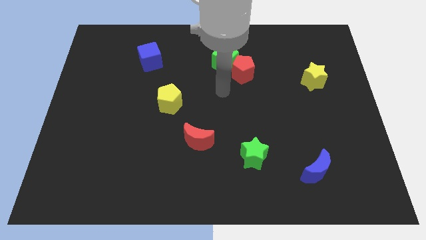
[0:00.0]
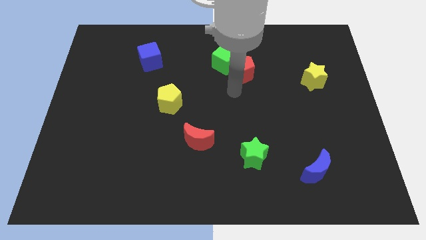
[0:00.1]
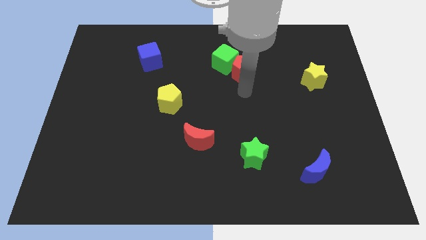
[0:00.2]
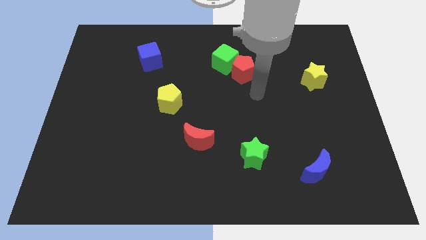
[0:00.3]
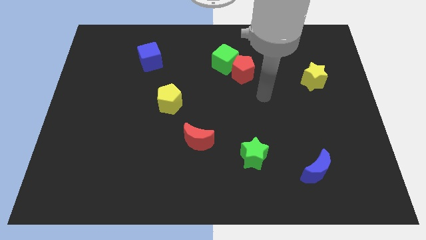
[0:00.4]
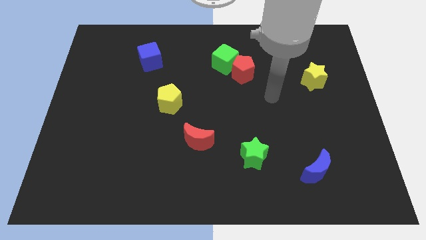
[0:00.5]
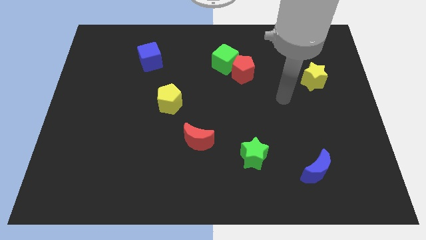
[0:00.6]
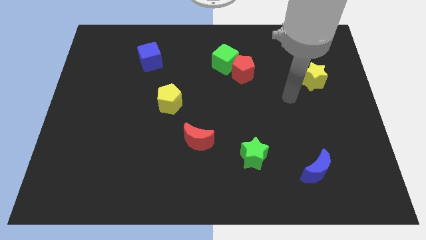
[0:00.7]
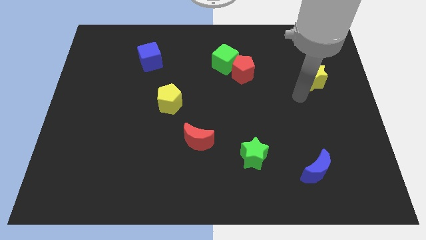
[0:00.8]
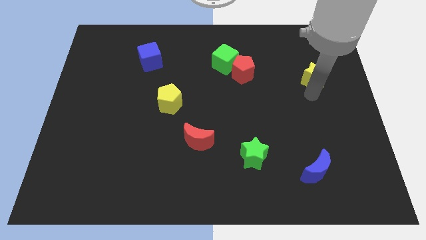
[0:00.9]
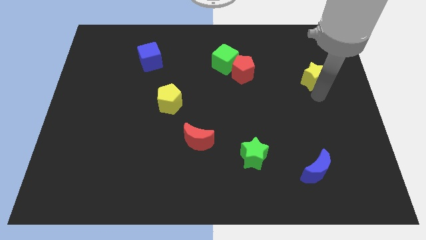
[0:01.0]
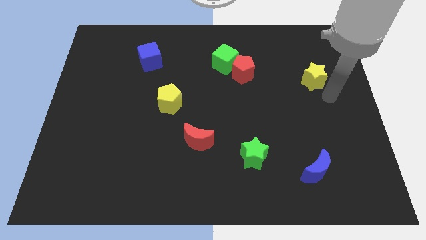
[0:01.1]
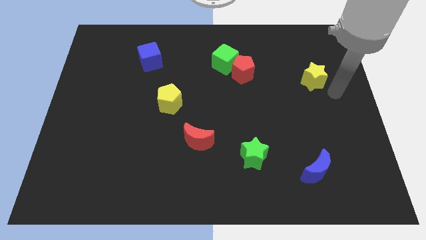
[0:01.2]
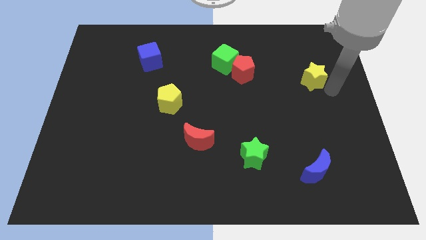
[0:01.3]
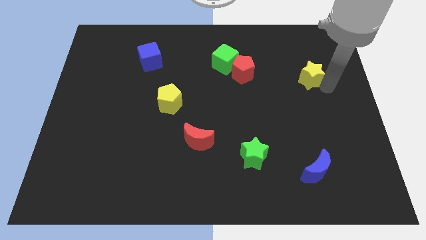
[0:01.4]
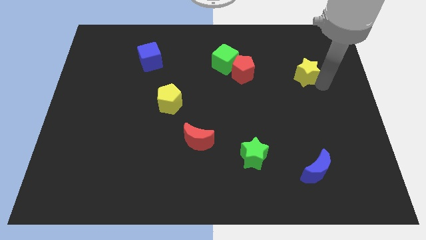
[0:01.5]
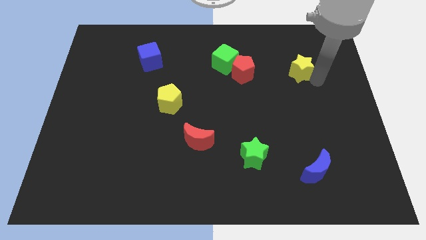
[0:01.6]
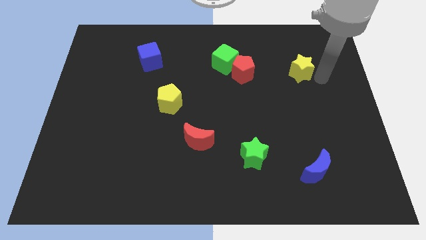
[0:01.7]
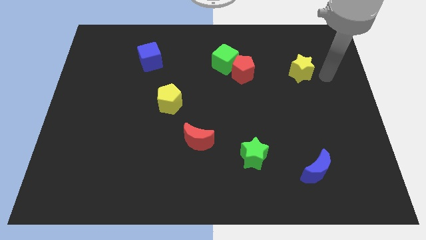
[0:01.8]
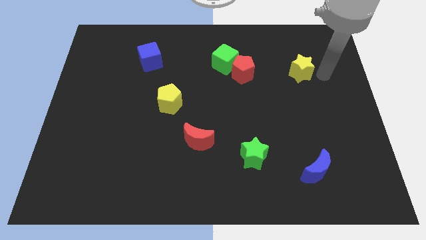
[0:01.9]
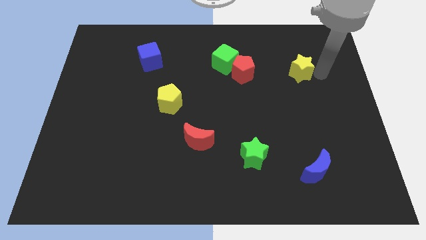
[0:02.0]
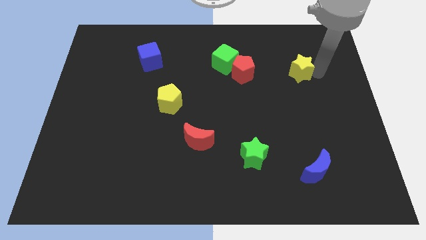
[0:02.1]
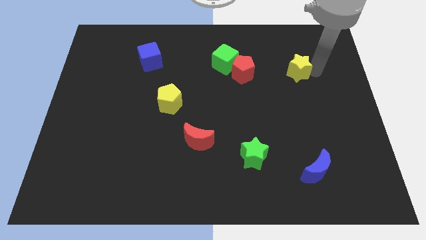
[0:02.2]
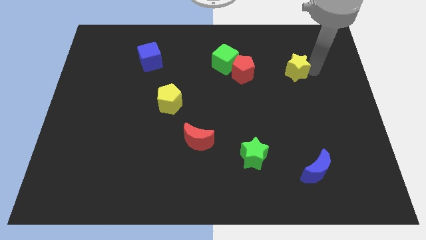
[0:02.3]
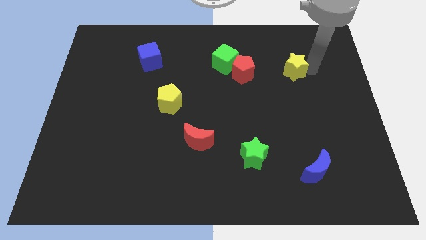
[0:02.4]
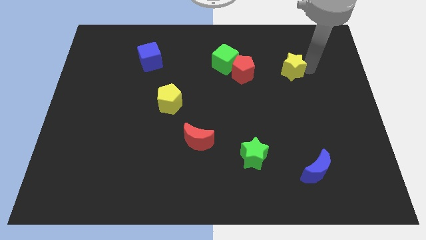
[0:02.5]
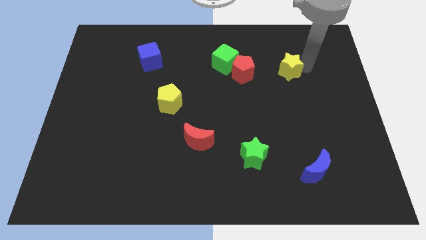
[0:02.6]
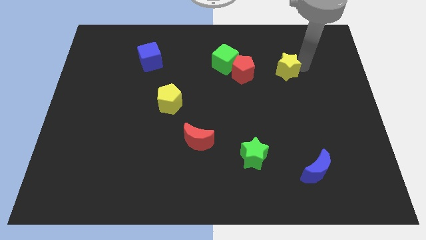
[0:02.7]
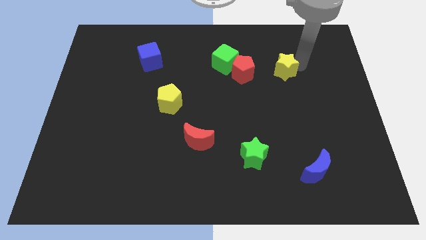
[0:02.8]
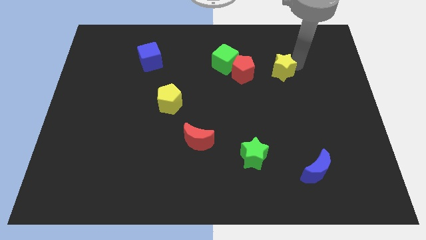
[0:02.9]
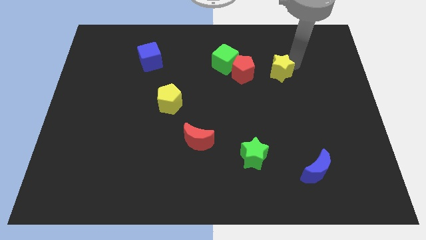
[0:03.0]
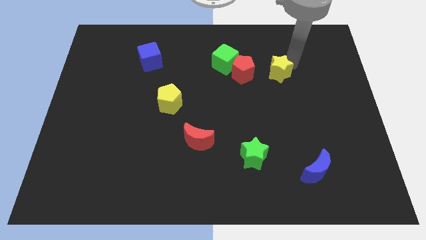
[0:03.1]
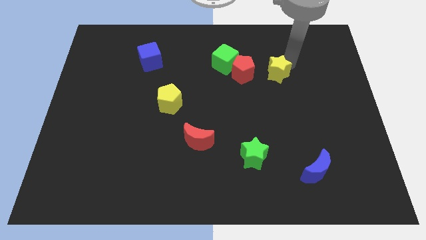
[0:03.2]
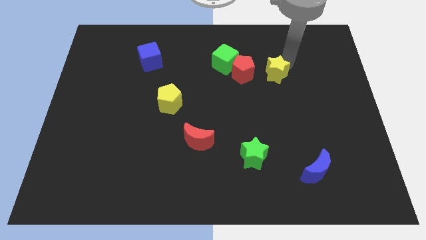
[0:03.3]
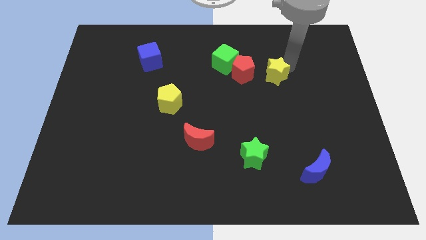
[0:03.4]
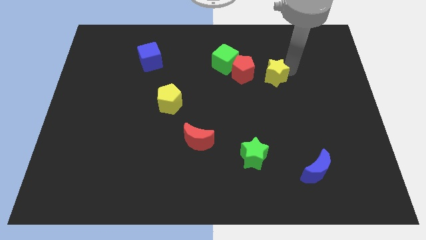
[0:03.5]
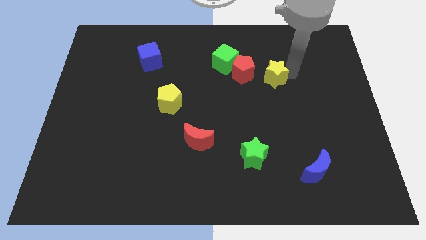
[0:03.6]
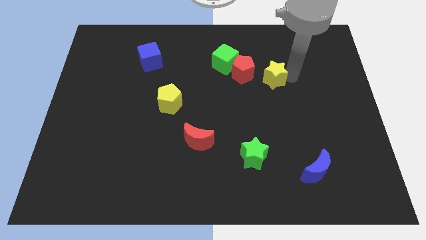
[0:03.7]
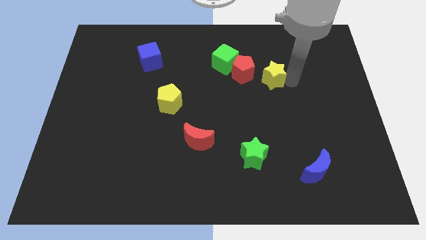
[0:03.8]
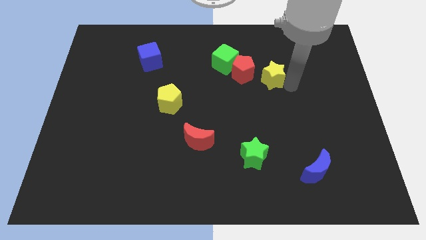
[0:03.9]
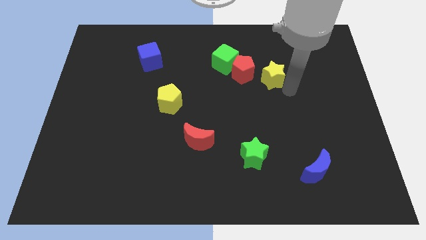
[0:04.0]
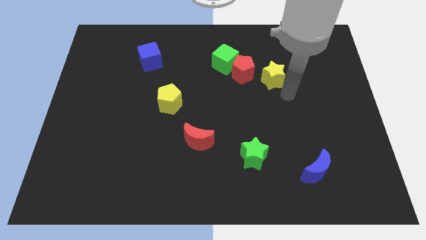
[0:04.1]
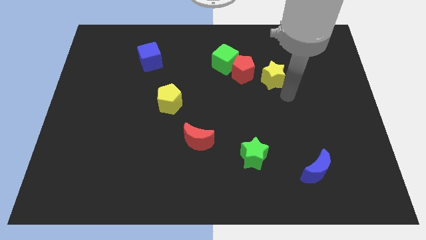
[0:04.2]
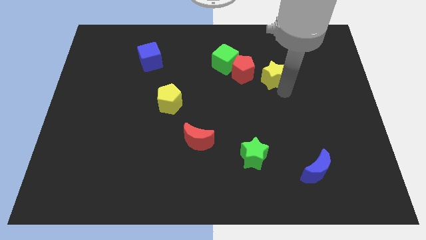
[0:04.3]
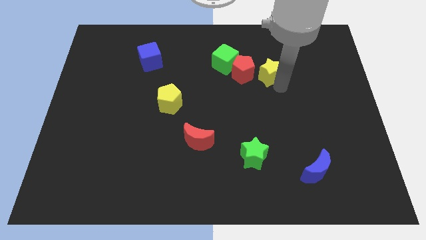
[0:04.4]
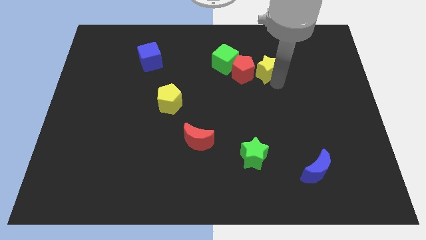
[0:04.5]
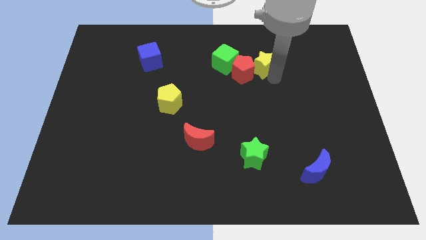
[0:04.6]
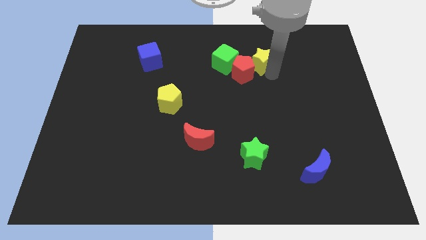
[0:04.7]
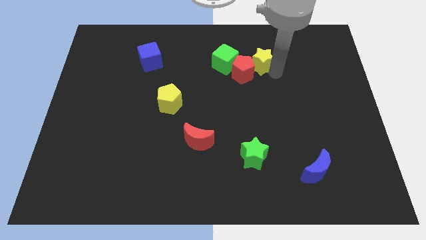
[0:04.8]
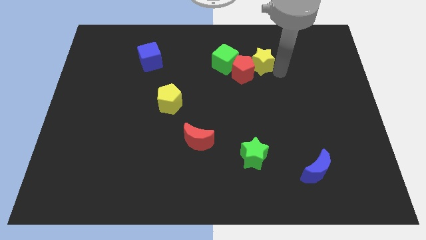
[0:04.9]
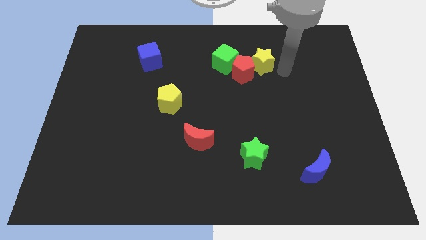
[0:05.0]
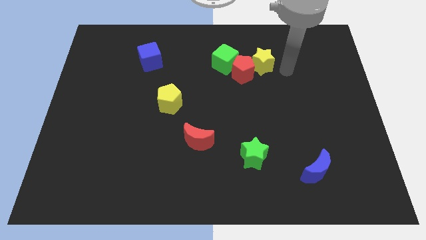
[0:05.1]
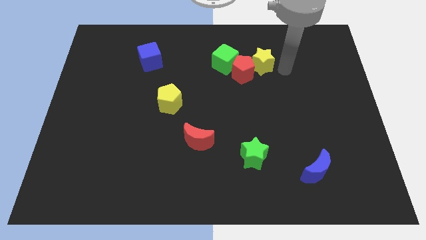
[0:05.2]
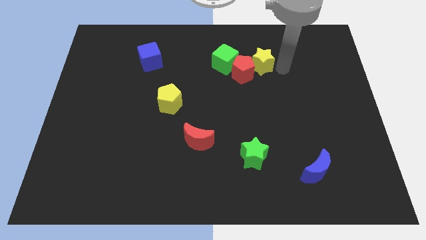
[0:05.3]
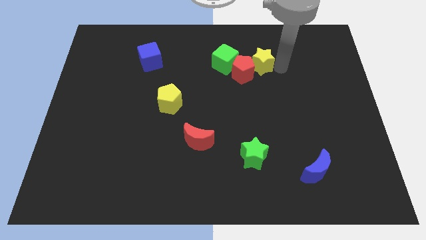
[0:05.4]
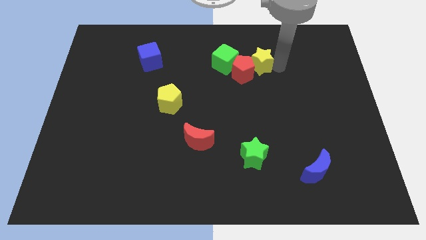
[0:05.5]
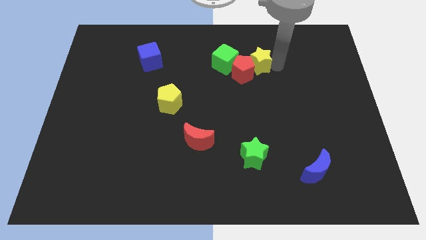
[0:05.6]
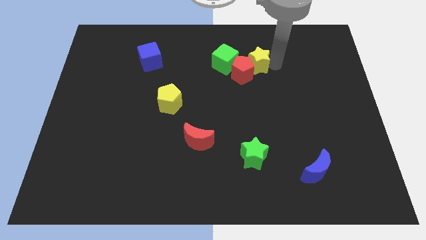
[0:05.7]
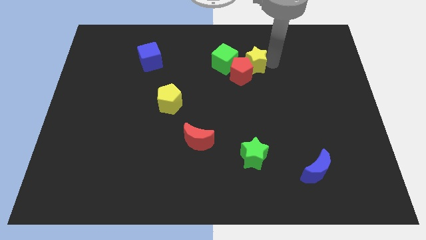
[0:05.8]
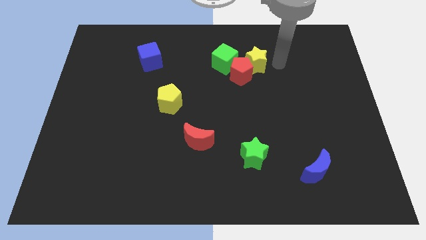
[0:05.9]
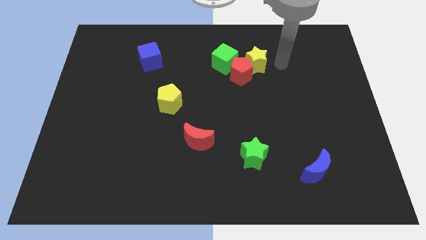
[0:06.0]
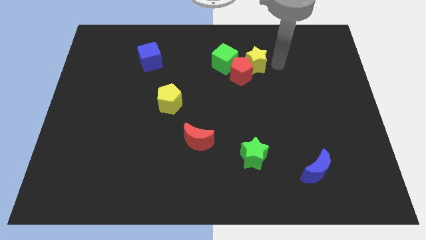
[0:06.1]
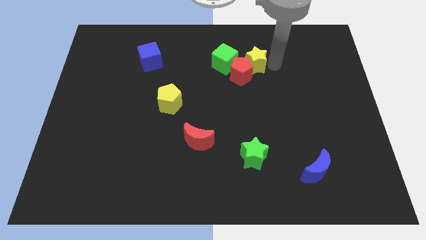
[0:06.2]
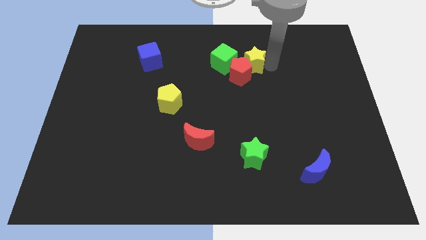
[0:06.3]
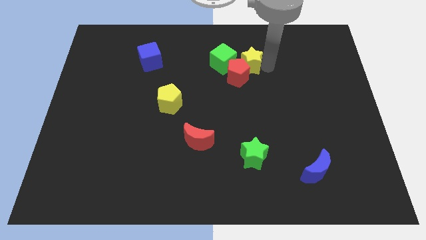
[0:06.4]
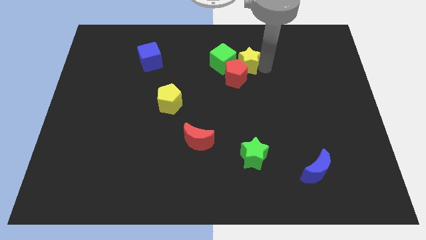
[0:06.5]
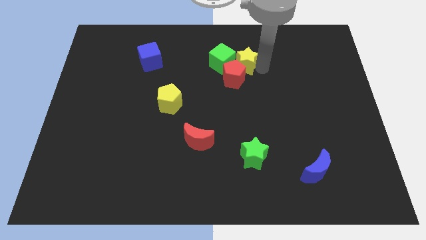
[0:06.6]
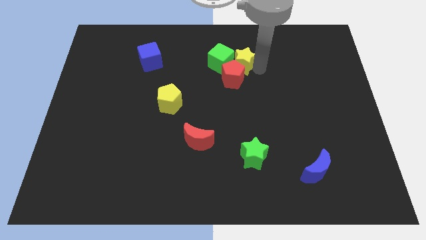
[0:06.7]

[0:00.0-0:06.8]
put the yellow star close to the green cube

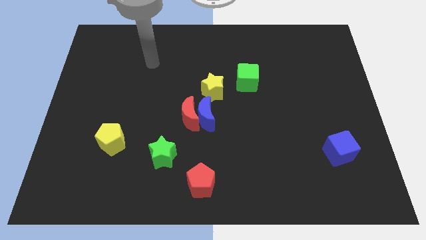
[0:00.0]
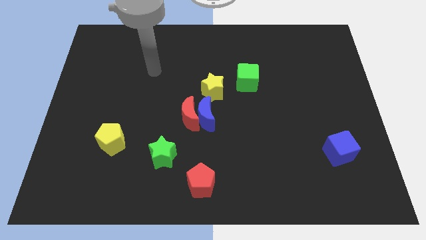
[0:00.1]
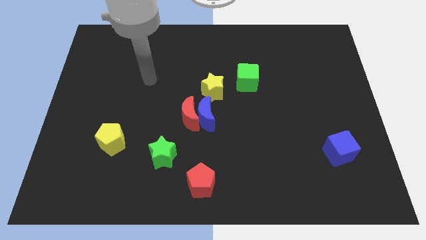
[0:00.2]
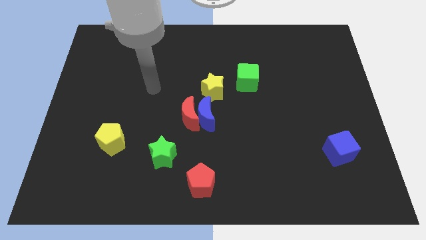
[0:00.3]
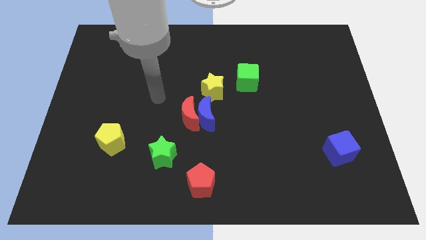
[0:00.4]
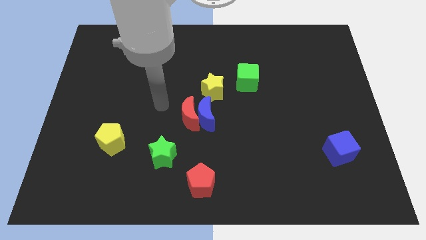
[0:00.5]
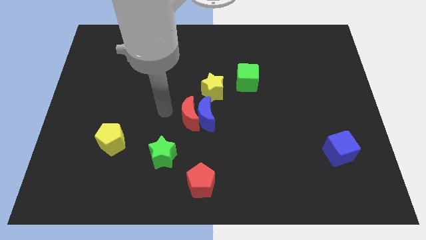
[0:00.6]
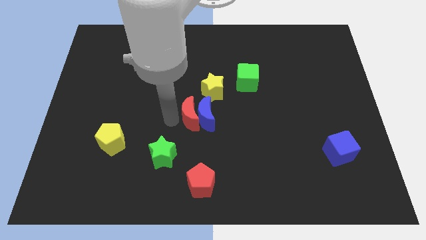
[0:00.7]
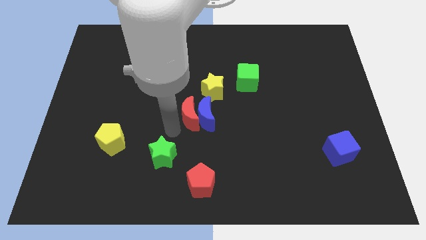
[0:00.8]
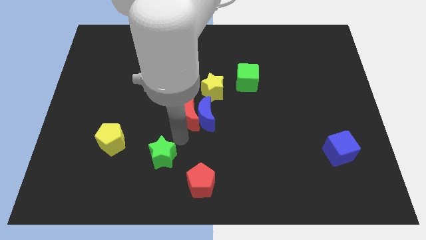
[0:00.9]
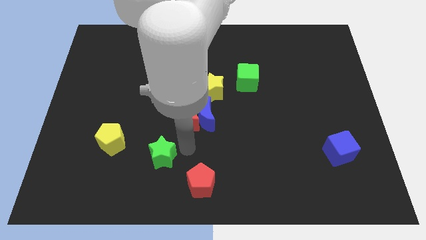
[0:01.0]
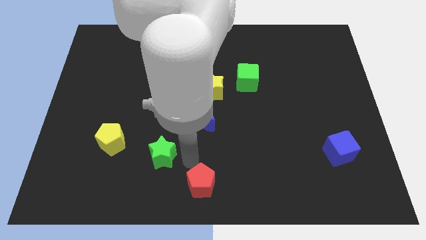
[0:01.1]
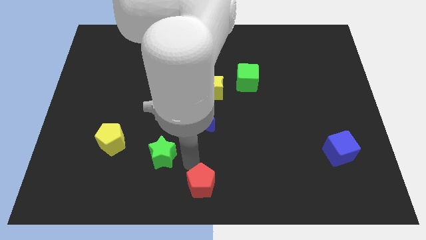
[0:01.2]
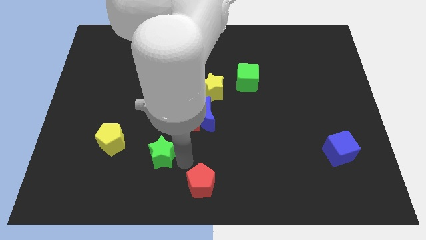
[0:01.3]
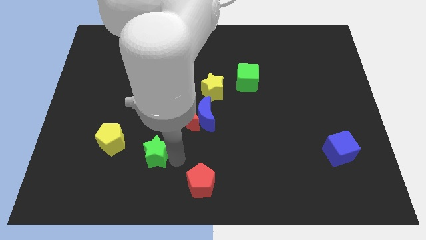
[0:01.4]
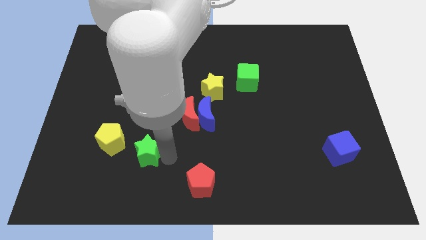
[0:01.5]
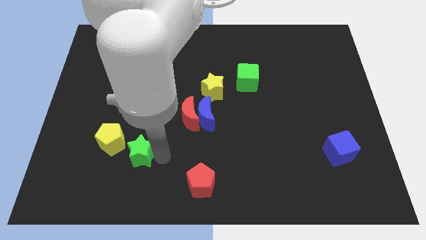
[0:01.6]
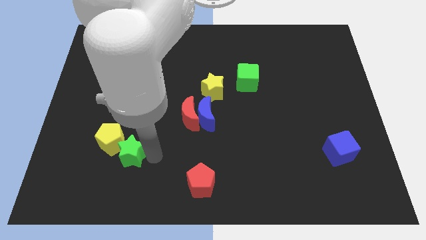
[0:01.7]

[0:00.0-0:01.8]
push the green star next to the yellow pentagon
